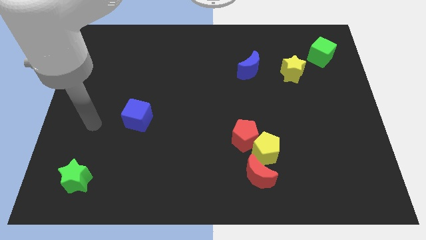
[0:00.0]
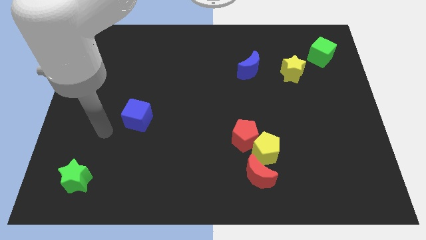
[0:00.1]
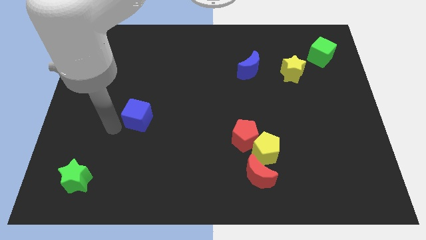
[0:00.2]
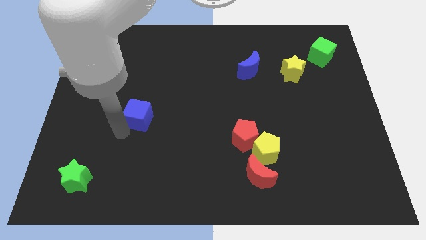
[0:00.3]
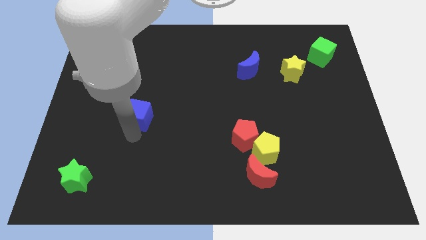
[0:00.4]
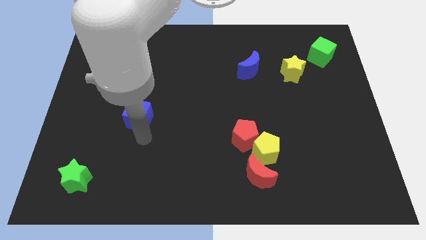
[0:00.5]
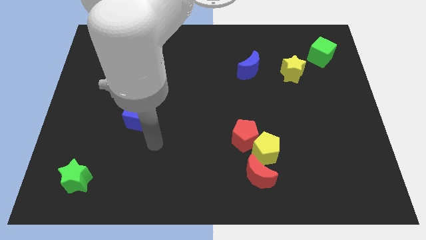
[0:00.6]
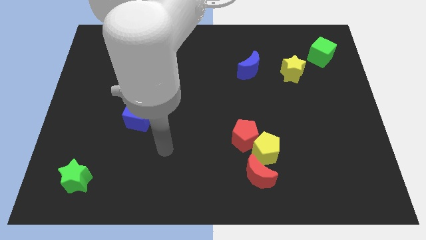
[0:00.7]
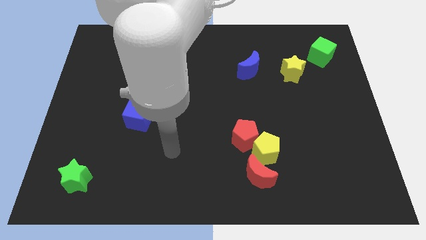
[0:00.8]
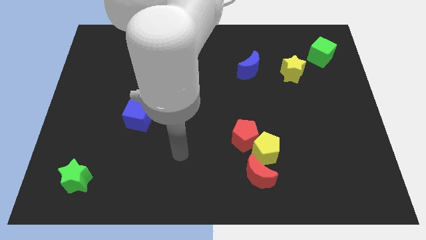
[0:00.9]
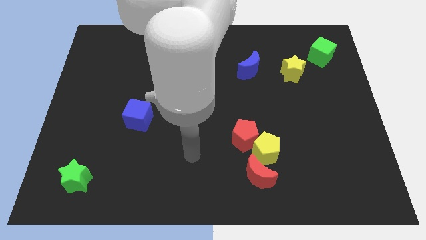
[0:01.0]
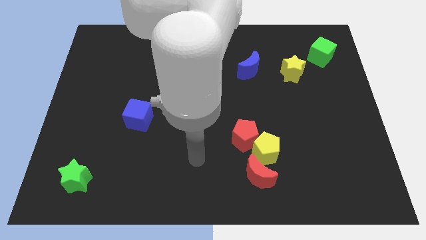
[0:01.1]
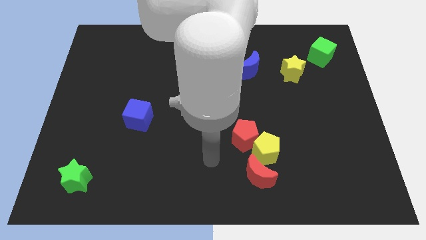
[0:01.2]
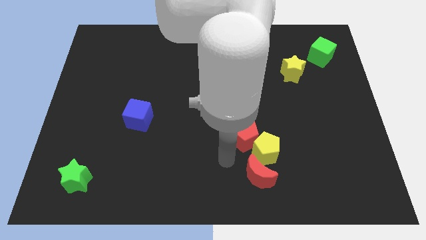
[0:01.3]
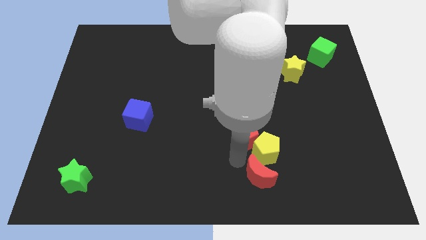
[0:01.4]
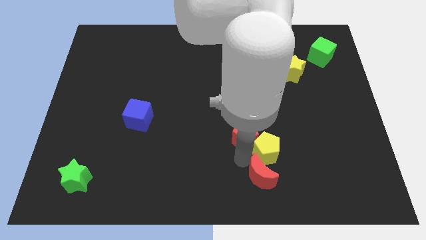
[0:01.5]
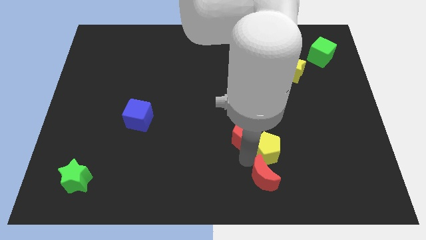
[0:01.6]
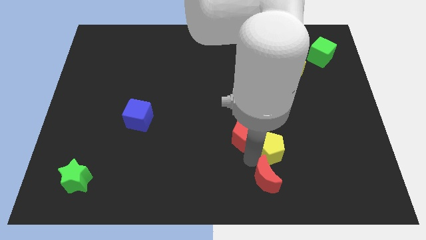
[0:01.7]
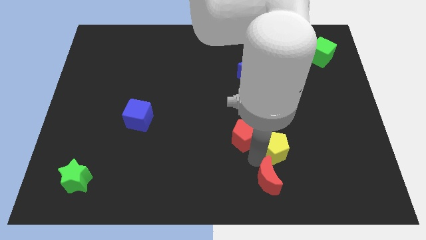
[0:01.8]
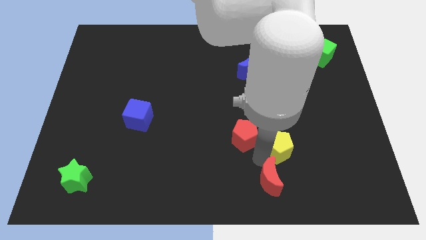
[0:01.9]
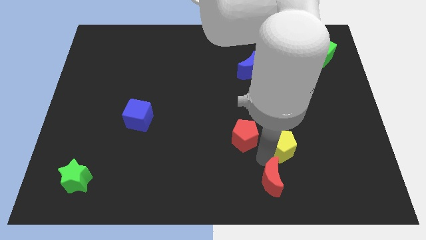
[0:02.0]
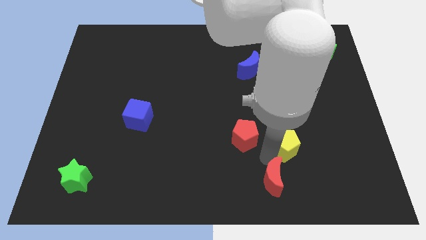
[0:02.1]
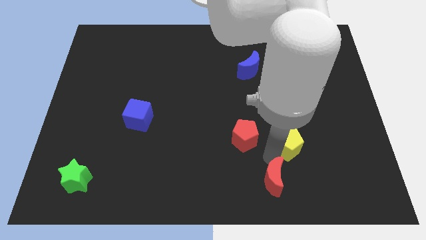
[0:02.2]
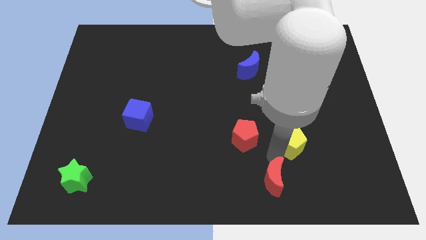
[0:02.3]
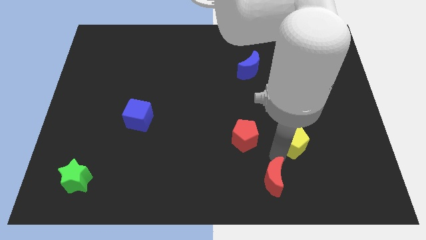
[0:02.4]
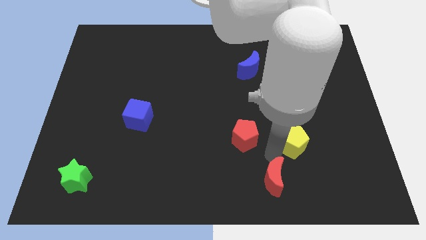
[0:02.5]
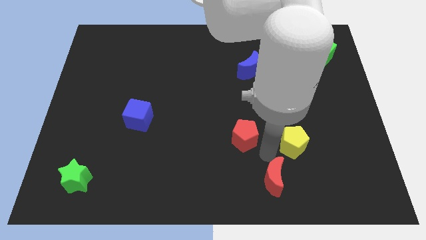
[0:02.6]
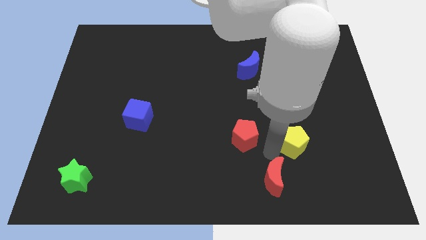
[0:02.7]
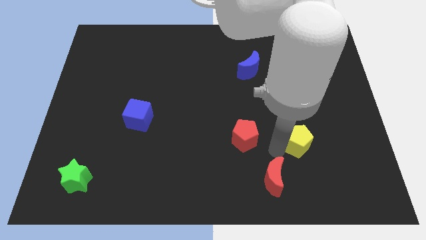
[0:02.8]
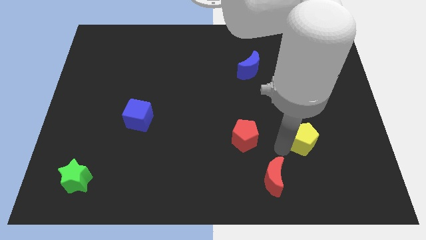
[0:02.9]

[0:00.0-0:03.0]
separate the yellow pentagon from the red pentagon and red moon

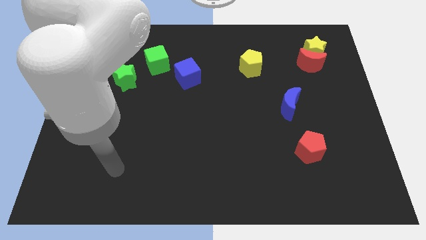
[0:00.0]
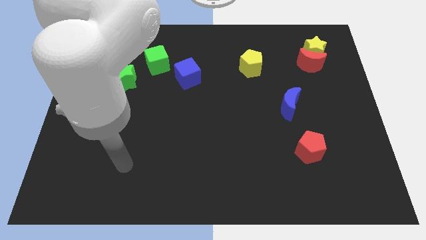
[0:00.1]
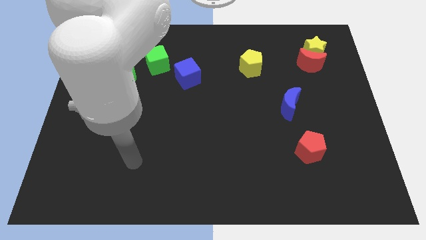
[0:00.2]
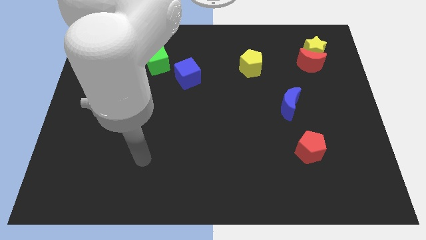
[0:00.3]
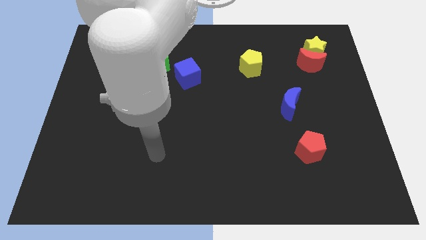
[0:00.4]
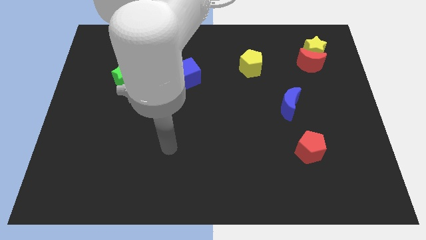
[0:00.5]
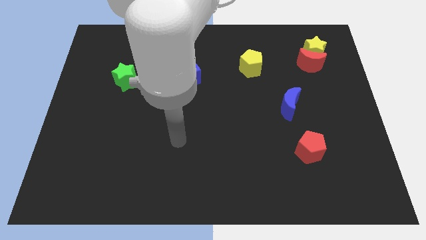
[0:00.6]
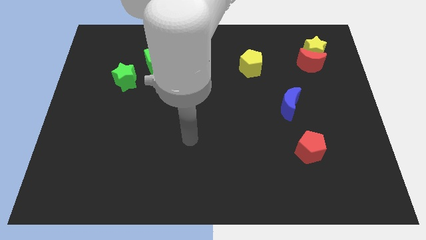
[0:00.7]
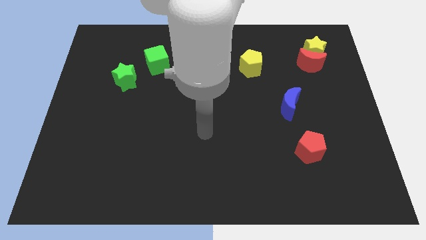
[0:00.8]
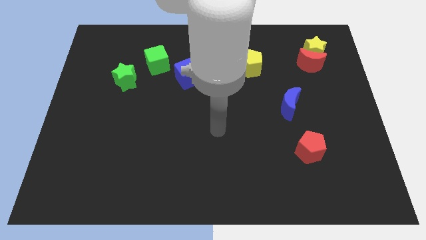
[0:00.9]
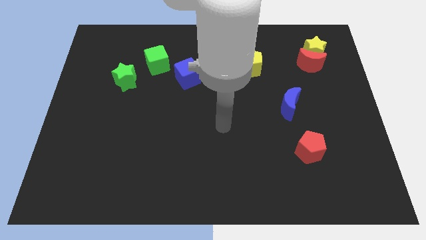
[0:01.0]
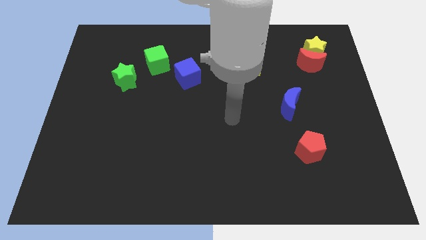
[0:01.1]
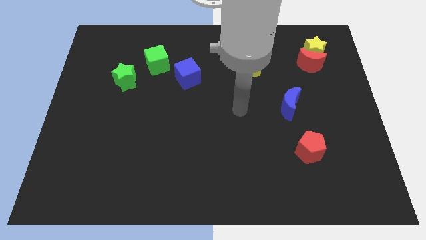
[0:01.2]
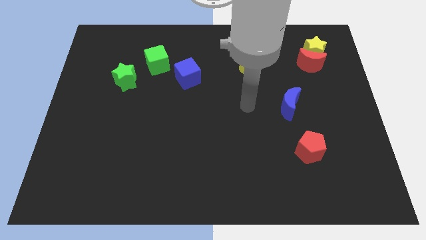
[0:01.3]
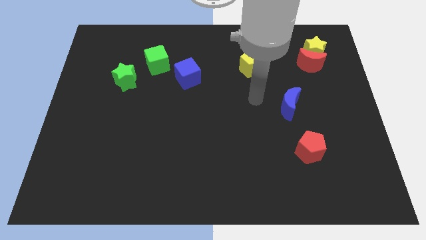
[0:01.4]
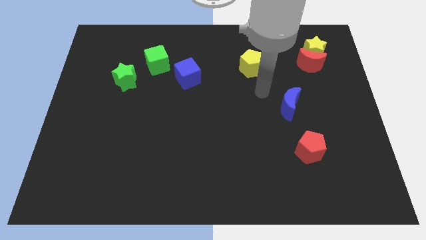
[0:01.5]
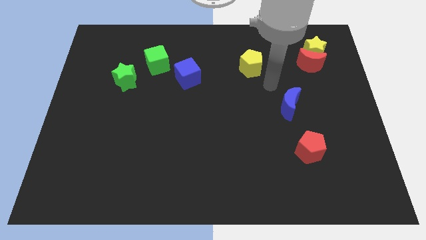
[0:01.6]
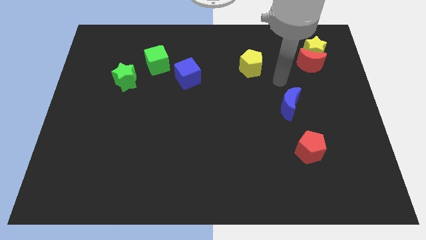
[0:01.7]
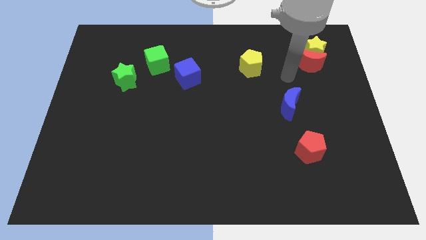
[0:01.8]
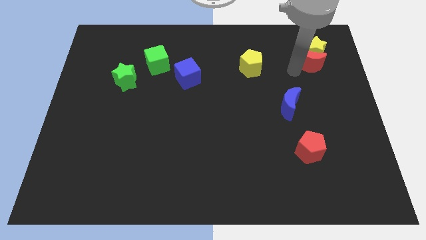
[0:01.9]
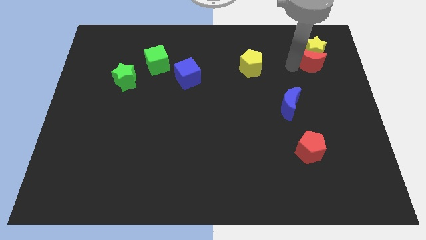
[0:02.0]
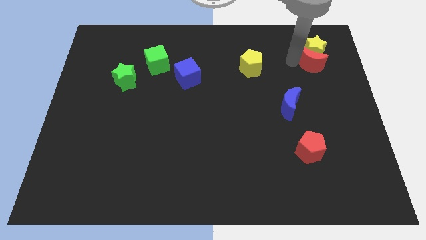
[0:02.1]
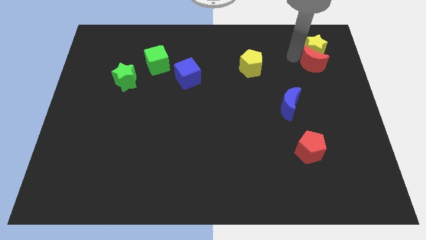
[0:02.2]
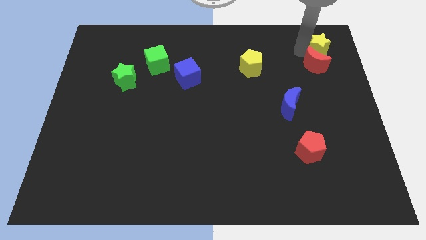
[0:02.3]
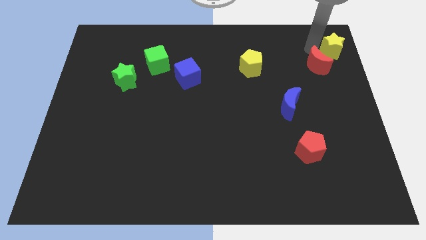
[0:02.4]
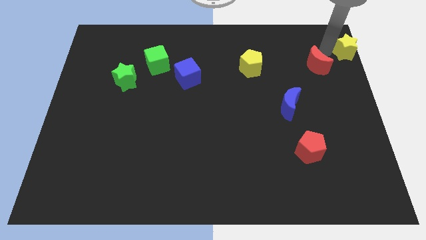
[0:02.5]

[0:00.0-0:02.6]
pull the red moon apart from the yellow star

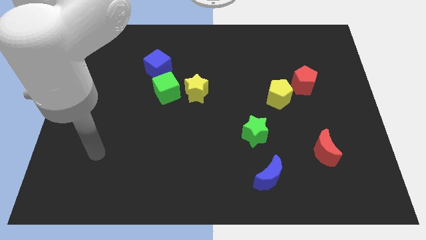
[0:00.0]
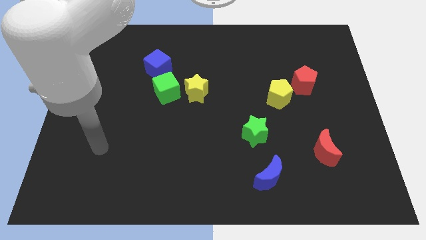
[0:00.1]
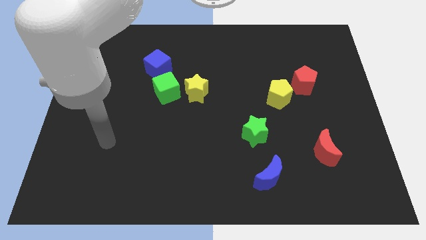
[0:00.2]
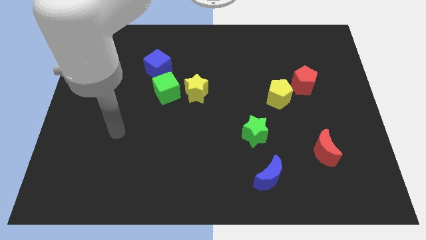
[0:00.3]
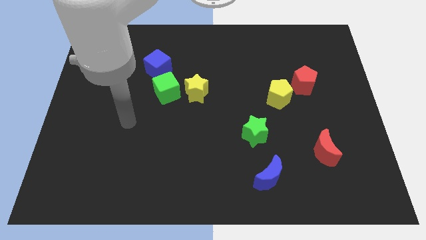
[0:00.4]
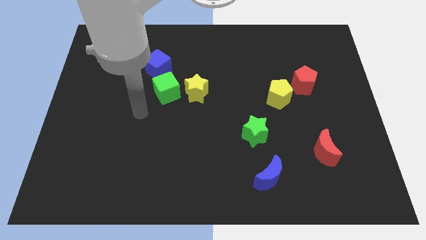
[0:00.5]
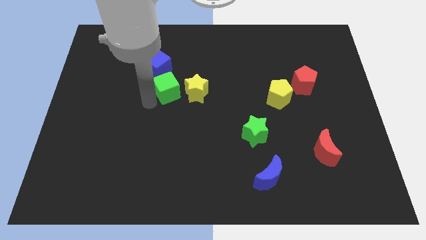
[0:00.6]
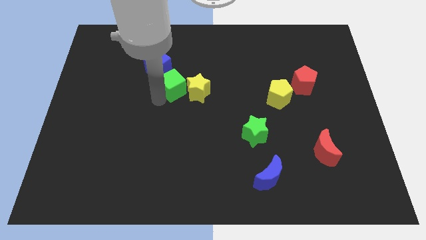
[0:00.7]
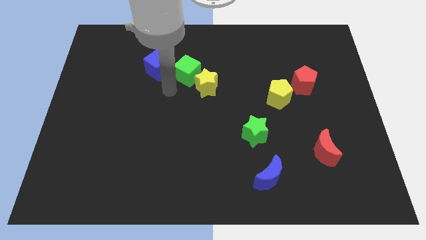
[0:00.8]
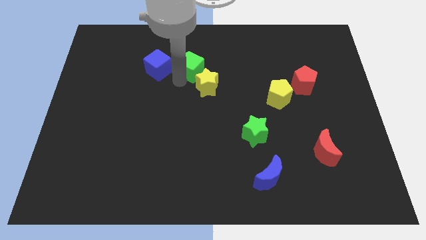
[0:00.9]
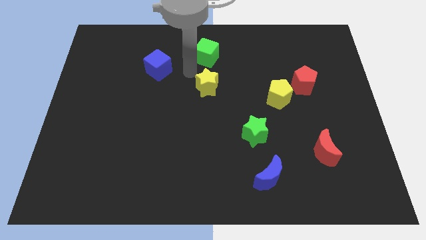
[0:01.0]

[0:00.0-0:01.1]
pull the yellow star apart from the green cube

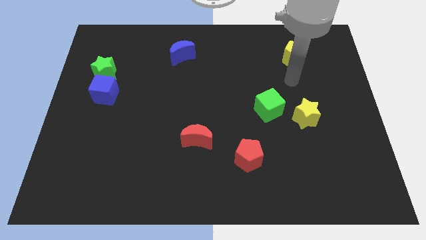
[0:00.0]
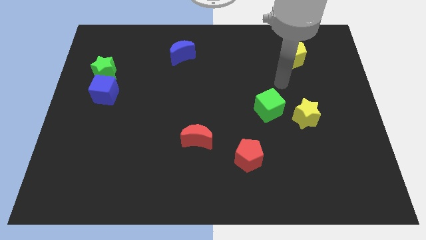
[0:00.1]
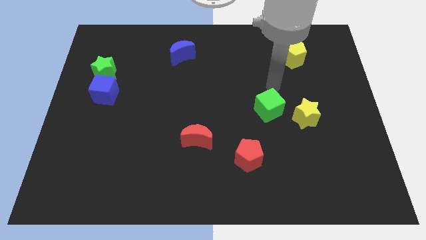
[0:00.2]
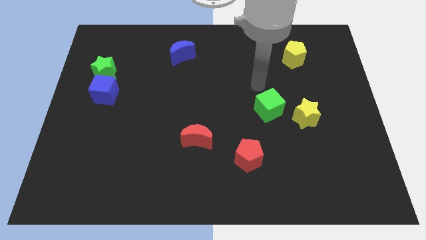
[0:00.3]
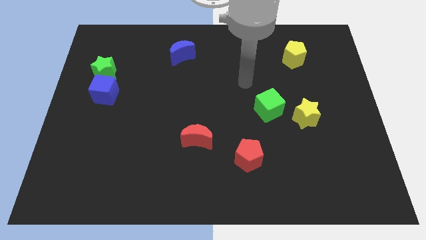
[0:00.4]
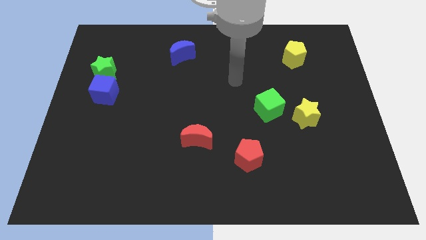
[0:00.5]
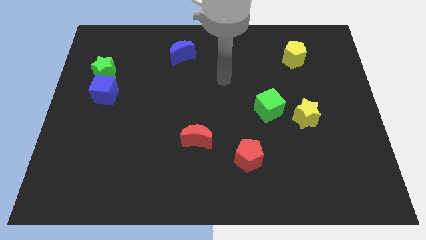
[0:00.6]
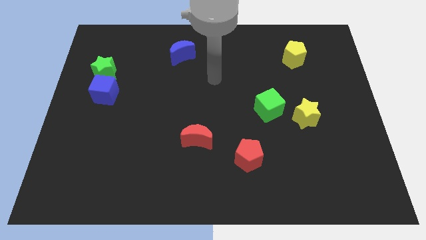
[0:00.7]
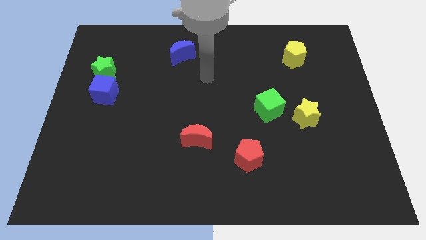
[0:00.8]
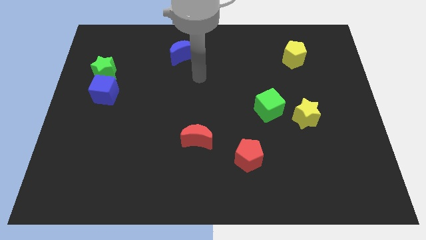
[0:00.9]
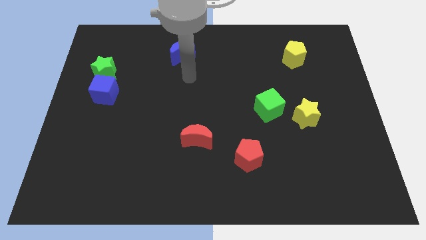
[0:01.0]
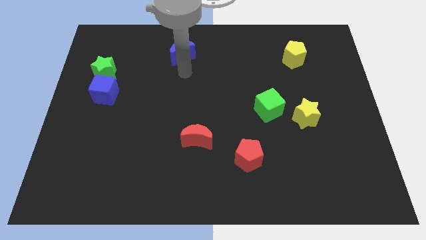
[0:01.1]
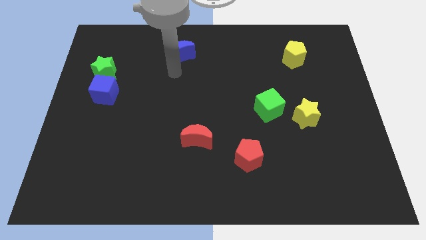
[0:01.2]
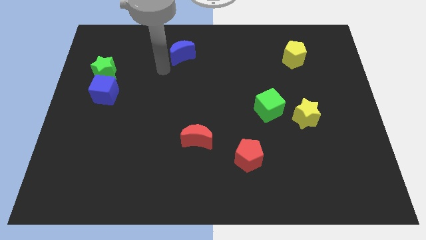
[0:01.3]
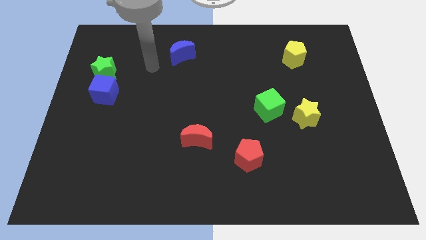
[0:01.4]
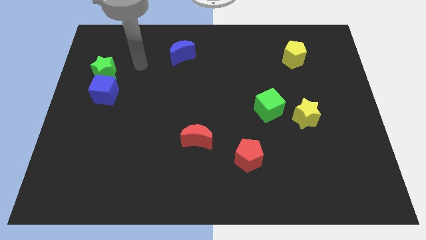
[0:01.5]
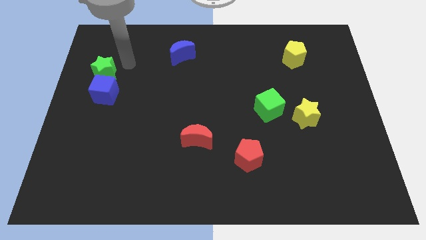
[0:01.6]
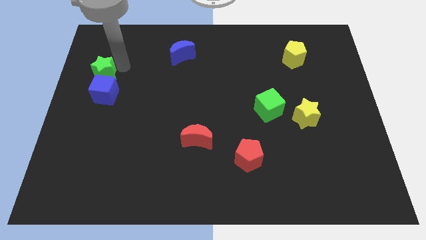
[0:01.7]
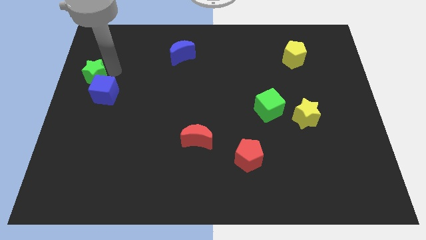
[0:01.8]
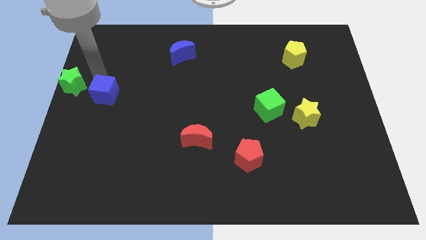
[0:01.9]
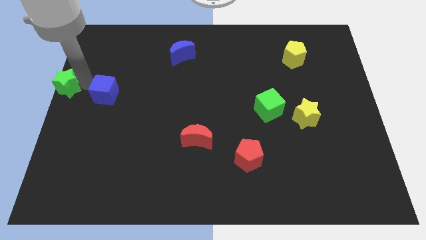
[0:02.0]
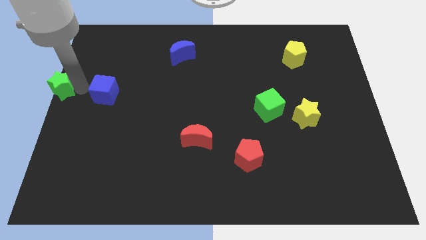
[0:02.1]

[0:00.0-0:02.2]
separate the blue cube from the green star

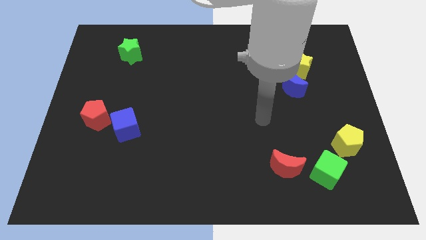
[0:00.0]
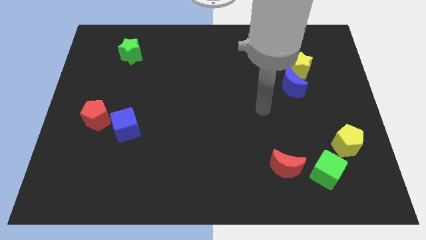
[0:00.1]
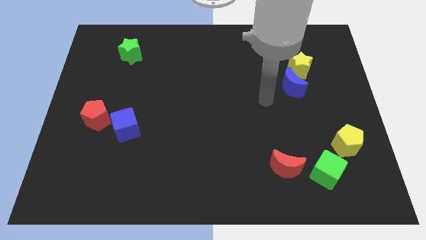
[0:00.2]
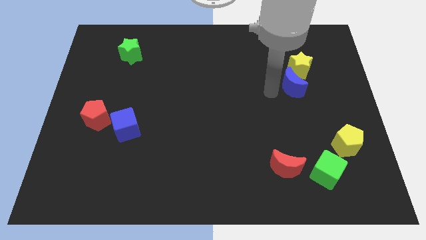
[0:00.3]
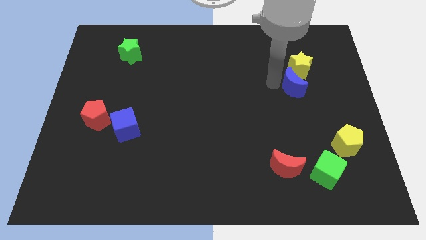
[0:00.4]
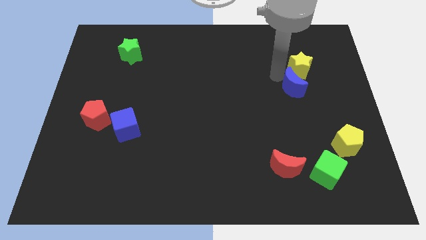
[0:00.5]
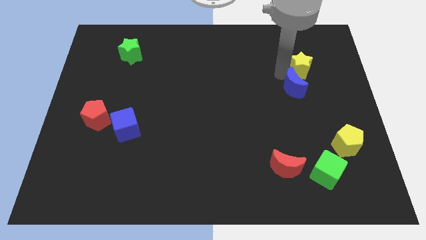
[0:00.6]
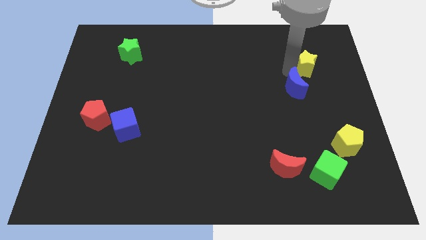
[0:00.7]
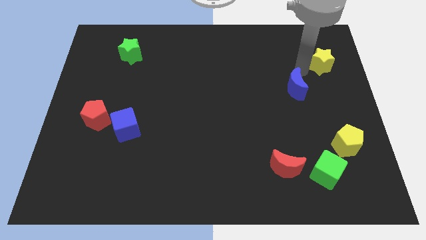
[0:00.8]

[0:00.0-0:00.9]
pull the blue moon apart from the yellow star
